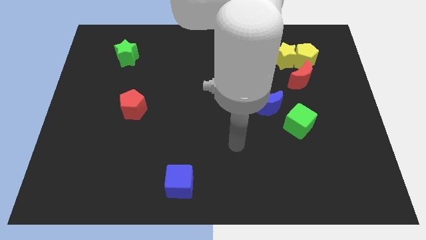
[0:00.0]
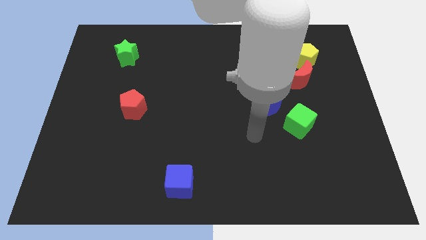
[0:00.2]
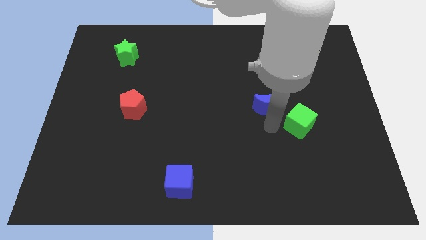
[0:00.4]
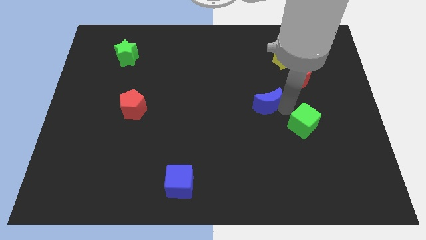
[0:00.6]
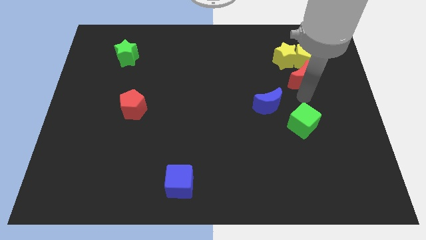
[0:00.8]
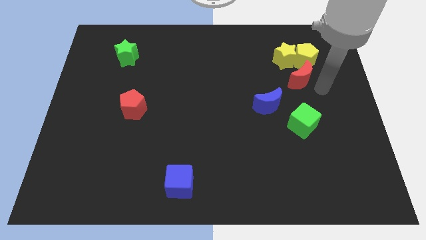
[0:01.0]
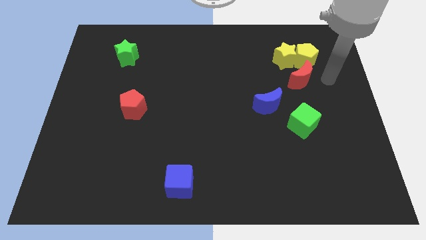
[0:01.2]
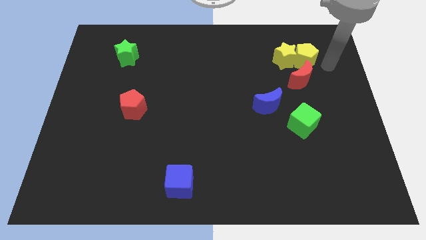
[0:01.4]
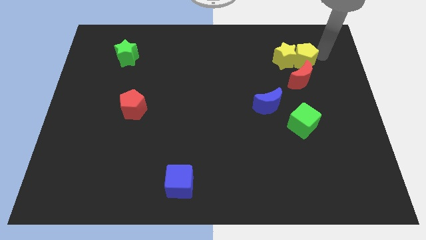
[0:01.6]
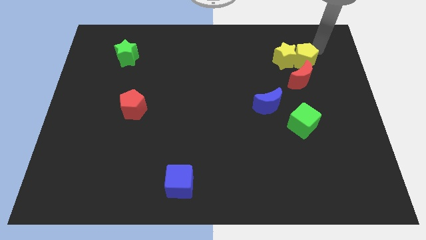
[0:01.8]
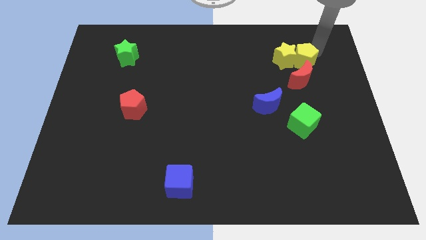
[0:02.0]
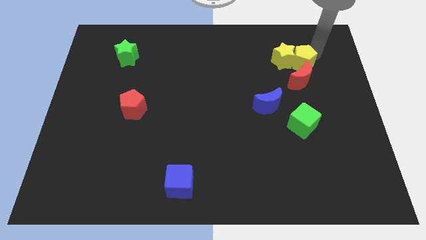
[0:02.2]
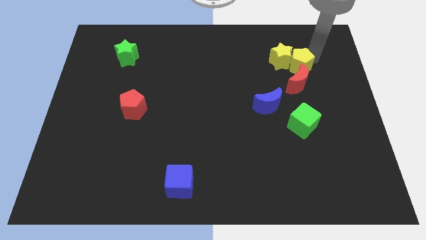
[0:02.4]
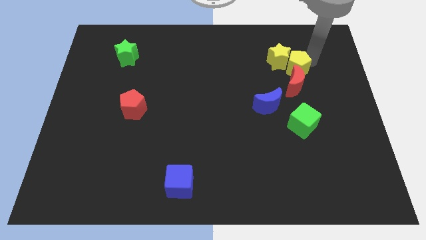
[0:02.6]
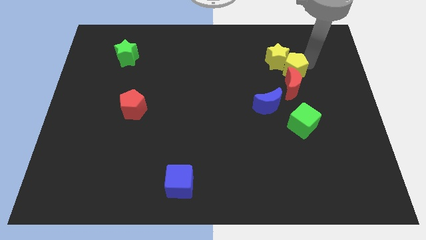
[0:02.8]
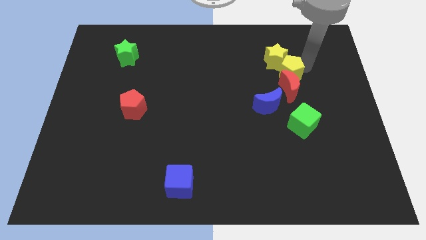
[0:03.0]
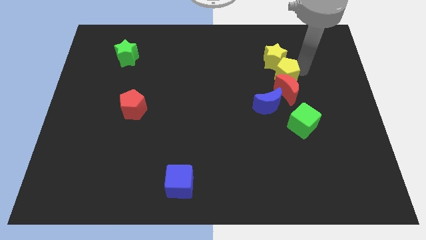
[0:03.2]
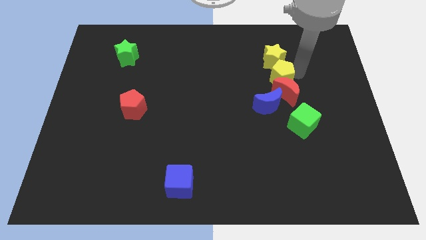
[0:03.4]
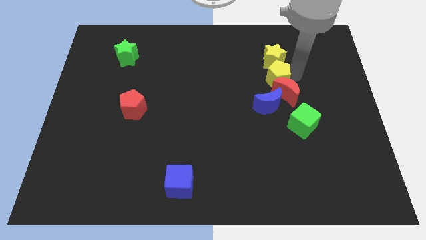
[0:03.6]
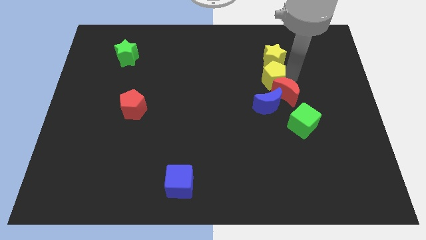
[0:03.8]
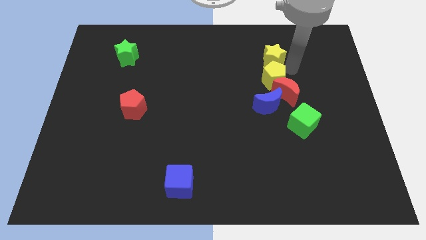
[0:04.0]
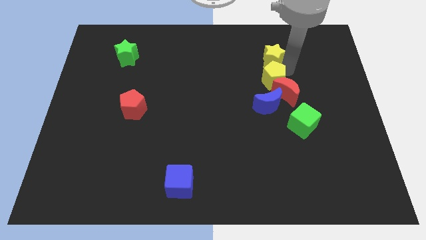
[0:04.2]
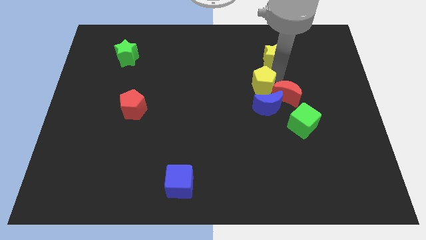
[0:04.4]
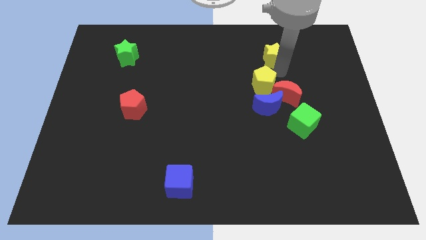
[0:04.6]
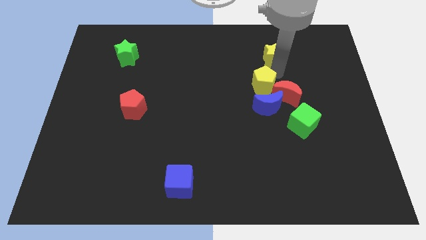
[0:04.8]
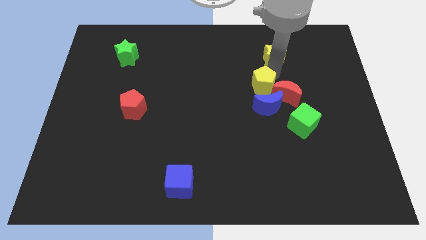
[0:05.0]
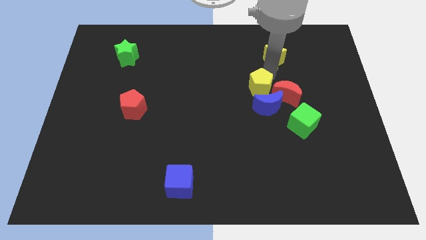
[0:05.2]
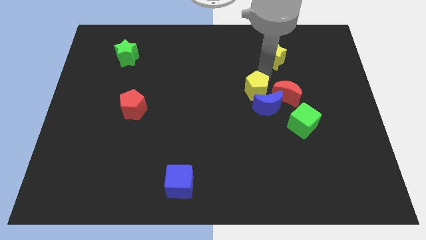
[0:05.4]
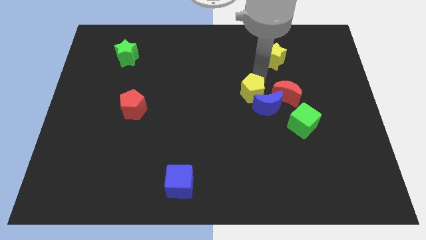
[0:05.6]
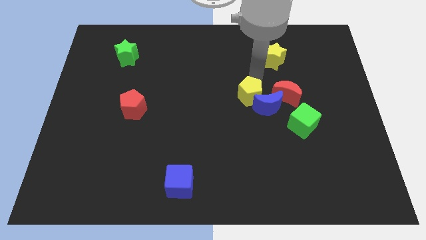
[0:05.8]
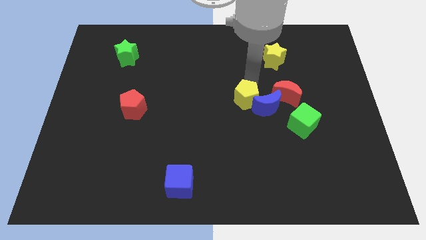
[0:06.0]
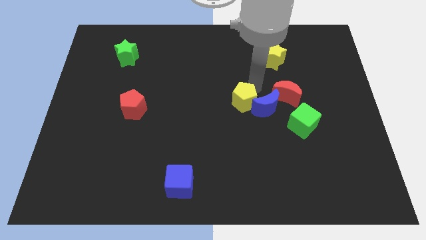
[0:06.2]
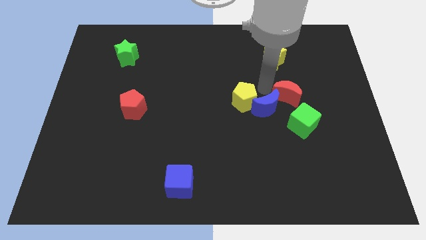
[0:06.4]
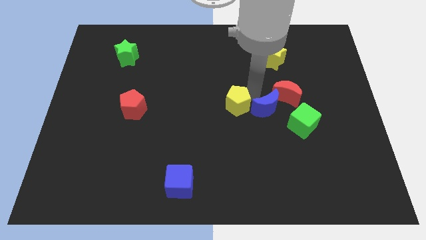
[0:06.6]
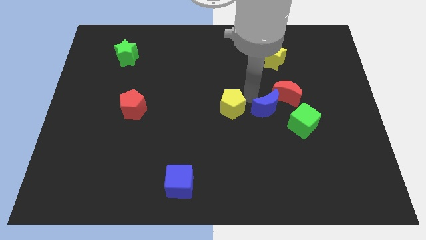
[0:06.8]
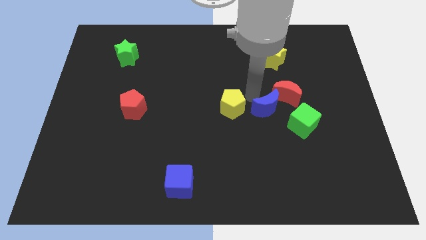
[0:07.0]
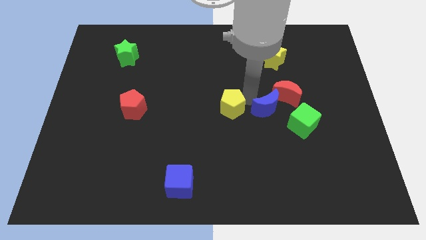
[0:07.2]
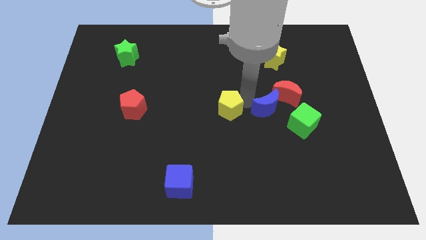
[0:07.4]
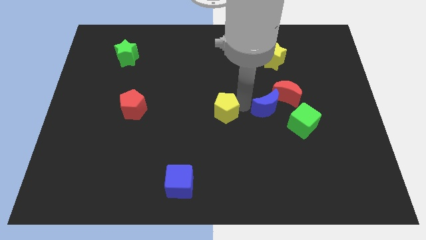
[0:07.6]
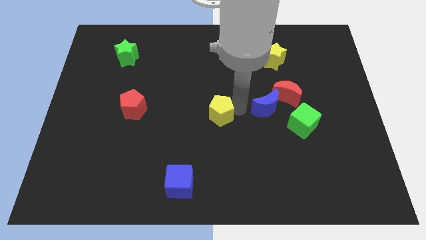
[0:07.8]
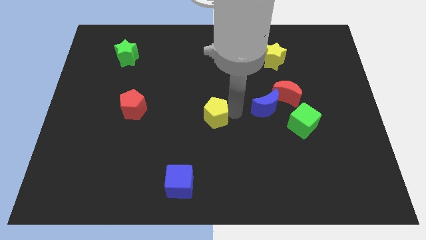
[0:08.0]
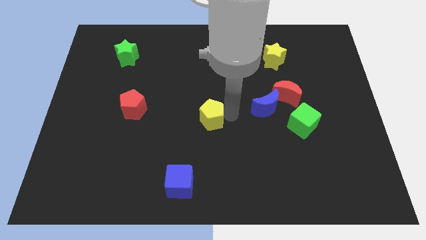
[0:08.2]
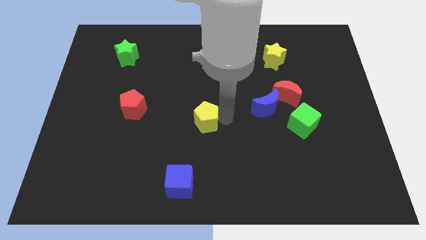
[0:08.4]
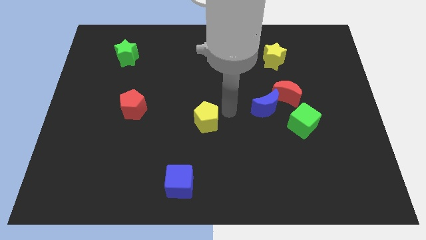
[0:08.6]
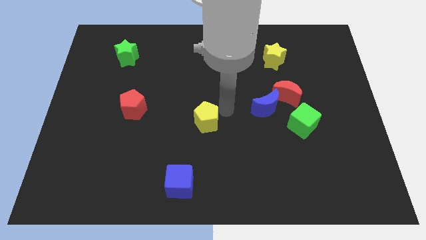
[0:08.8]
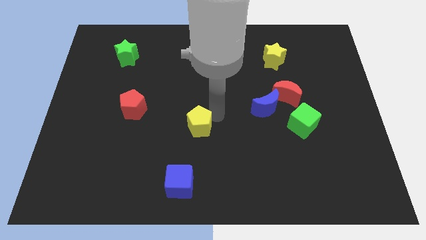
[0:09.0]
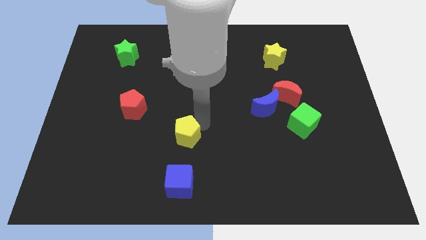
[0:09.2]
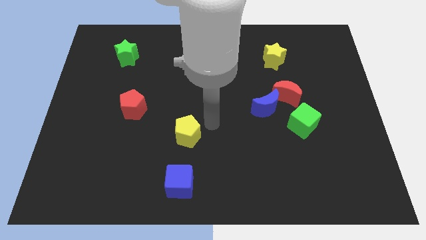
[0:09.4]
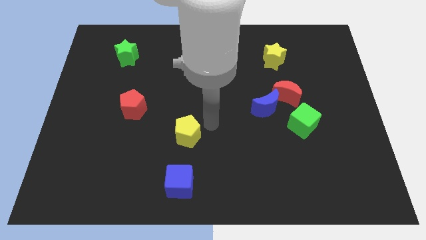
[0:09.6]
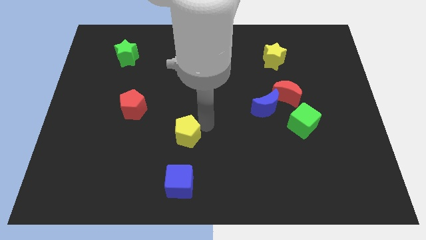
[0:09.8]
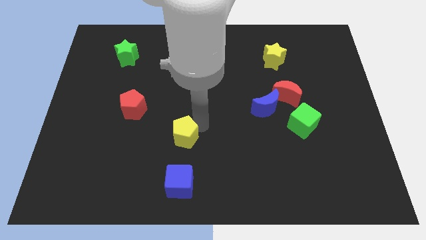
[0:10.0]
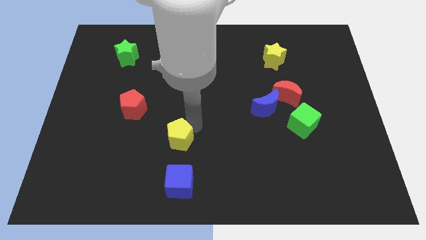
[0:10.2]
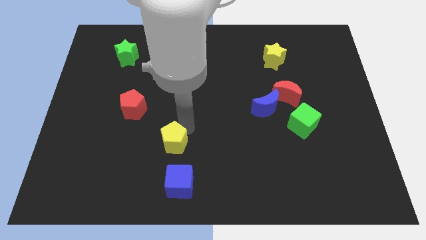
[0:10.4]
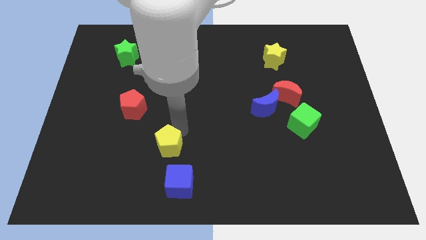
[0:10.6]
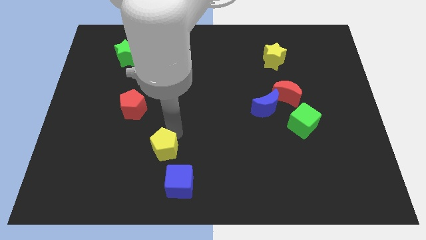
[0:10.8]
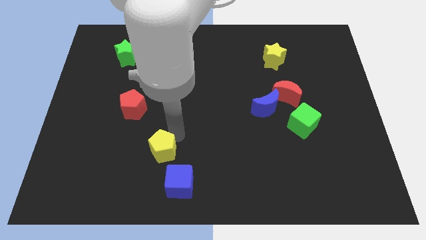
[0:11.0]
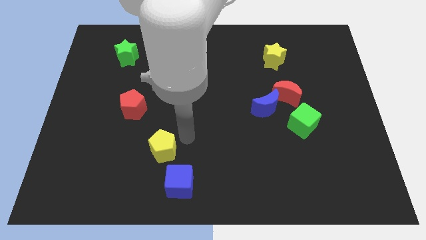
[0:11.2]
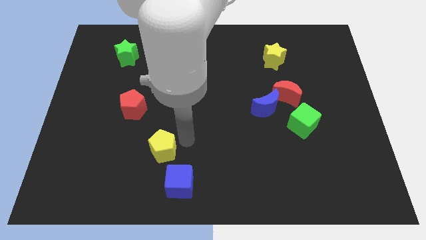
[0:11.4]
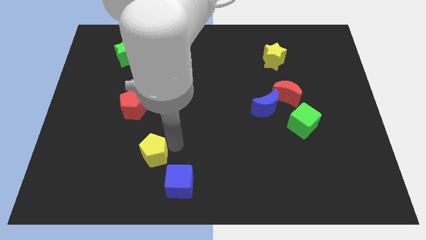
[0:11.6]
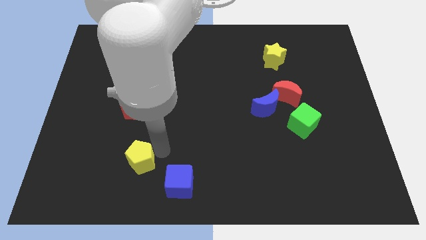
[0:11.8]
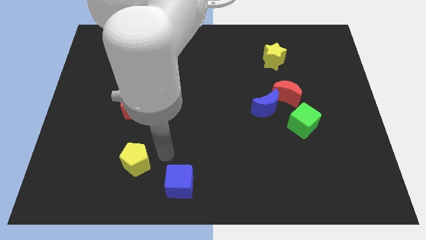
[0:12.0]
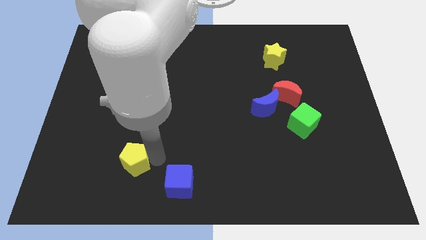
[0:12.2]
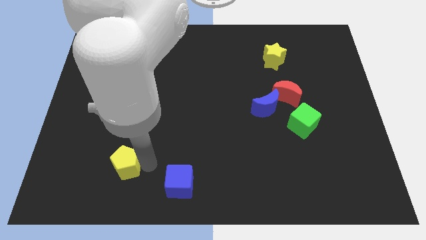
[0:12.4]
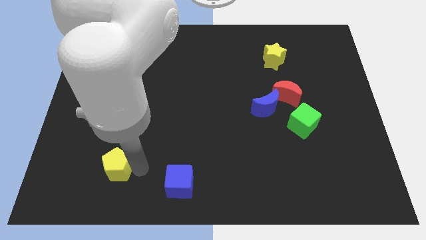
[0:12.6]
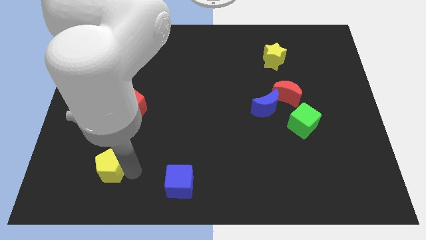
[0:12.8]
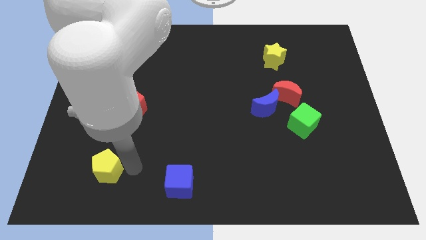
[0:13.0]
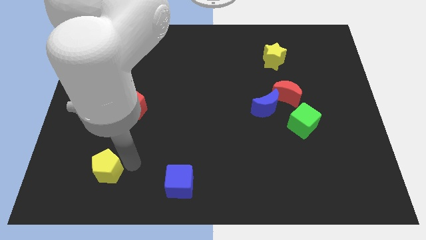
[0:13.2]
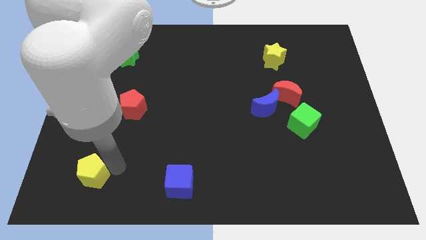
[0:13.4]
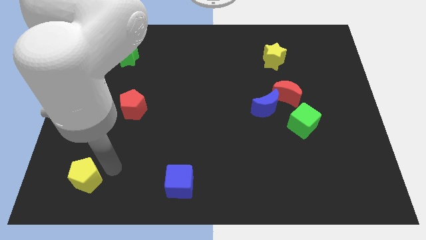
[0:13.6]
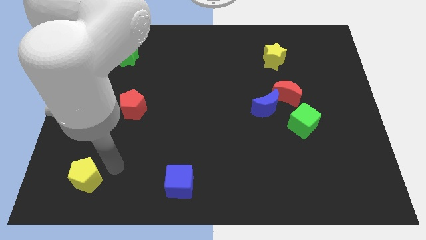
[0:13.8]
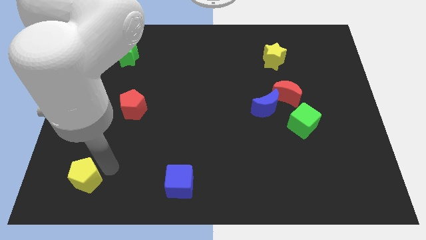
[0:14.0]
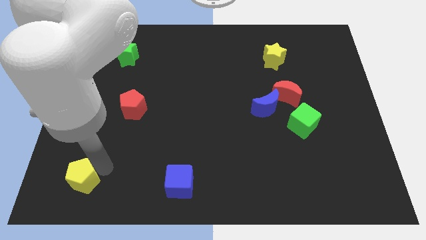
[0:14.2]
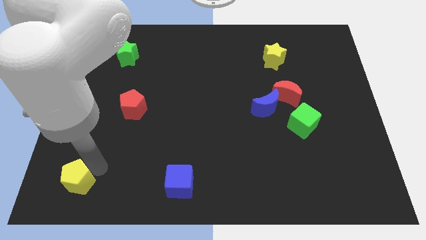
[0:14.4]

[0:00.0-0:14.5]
move the yellow pentagon to the lower left corner
